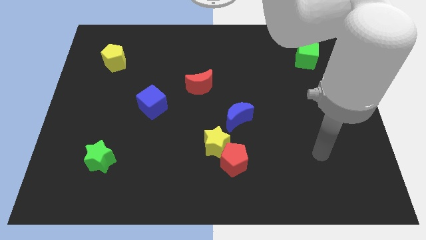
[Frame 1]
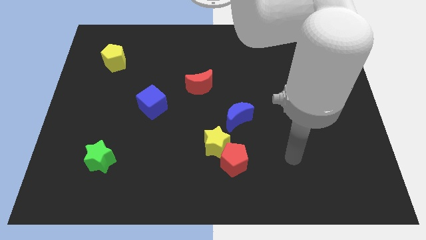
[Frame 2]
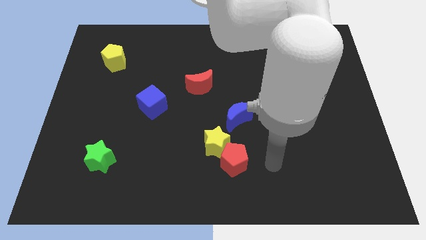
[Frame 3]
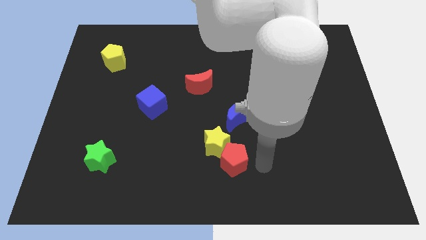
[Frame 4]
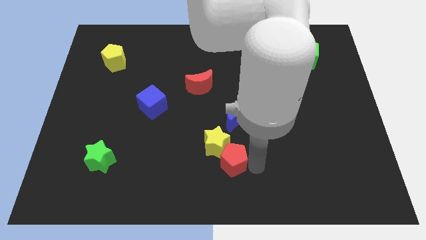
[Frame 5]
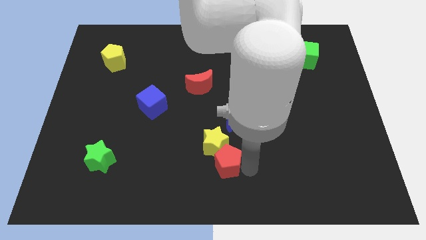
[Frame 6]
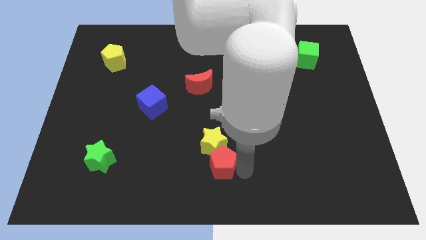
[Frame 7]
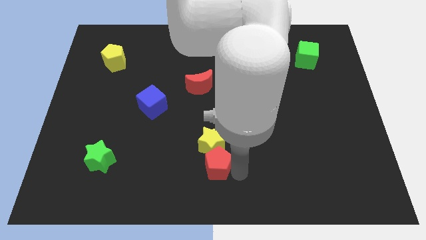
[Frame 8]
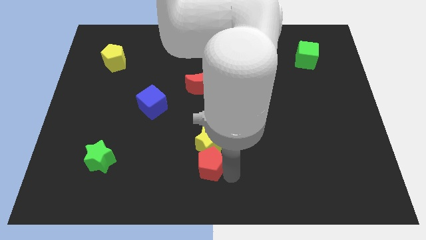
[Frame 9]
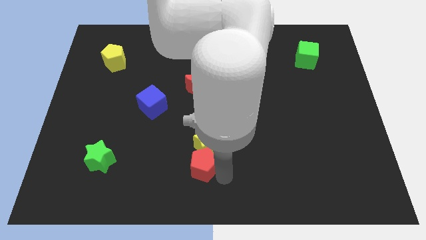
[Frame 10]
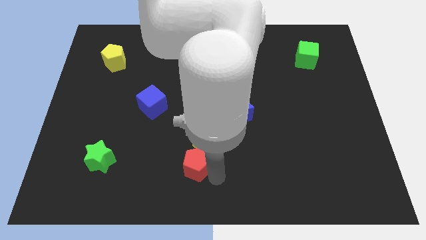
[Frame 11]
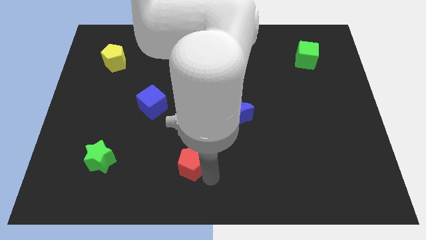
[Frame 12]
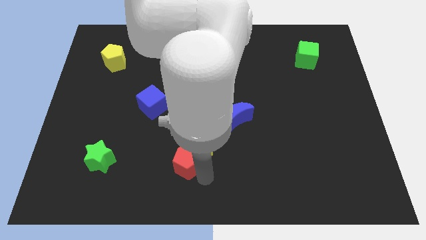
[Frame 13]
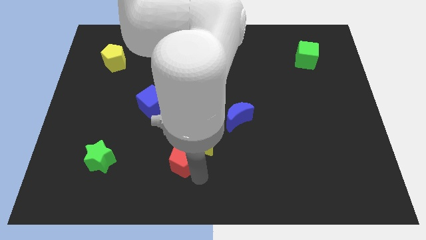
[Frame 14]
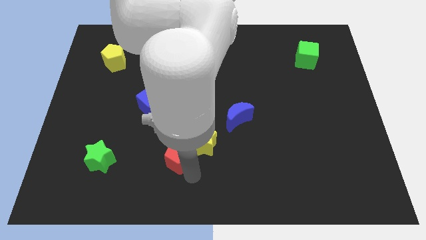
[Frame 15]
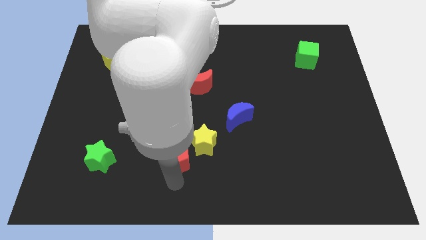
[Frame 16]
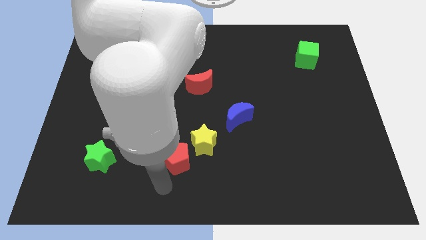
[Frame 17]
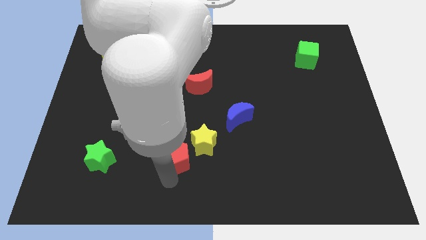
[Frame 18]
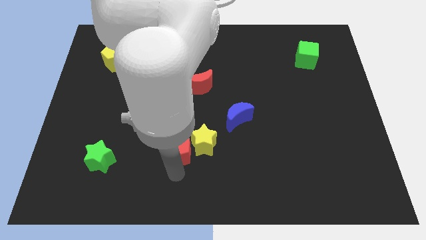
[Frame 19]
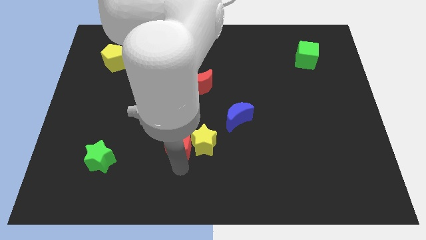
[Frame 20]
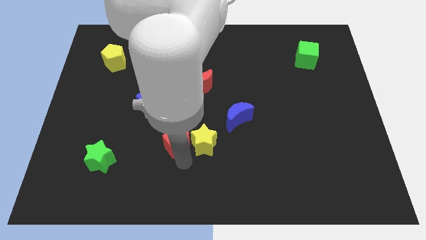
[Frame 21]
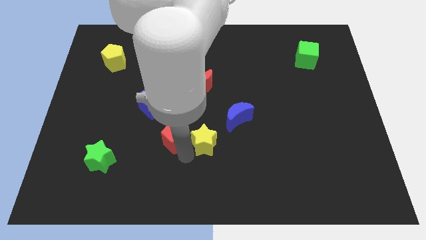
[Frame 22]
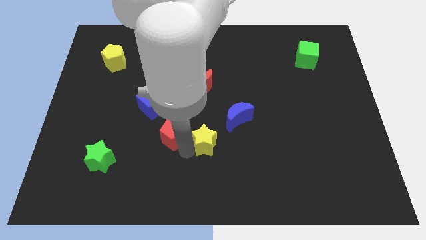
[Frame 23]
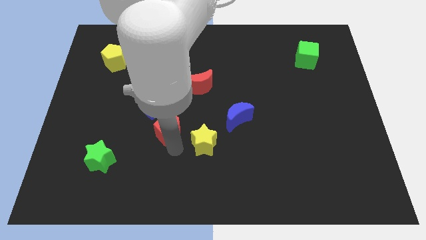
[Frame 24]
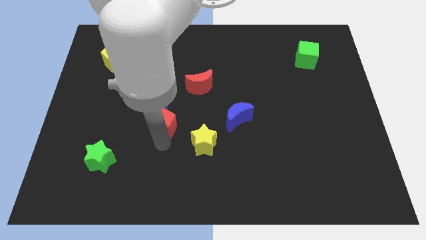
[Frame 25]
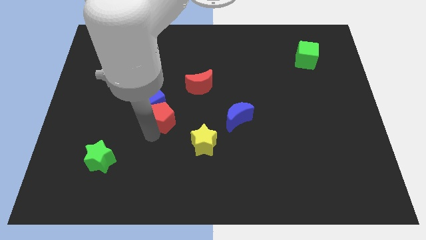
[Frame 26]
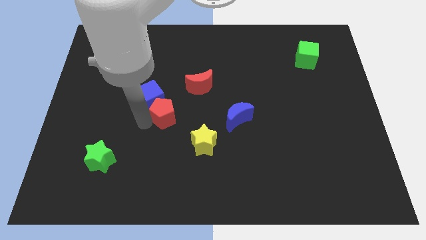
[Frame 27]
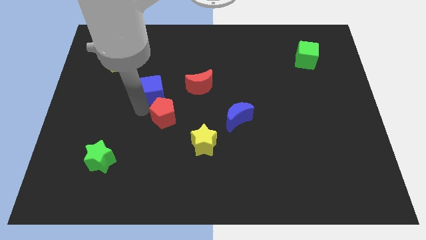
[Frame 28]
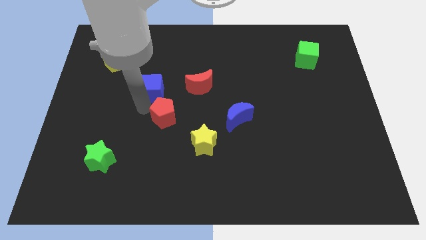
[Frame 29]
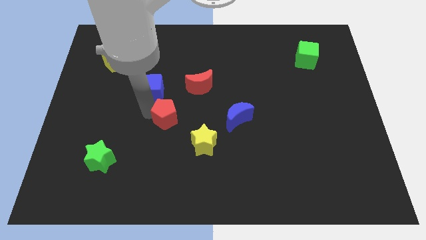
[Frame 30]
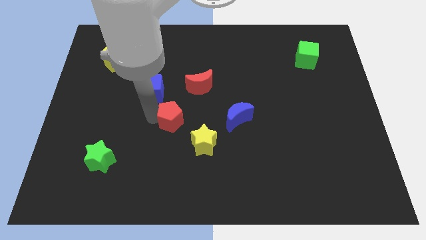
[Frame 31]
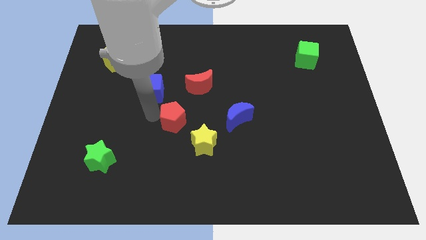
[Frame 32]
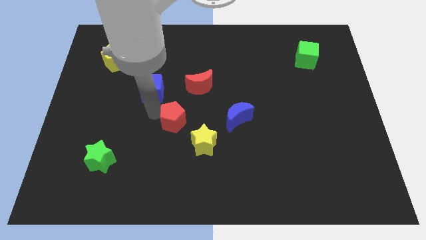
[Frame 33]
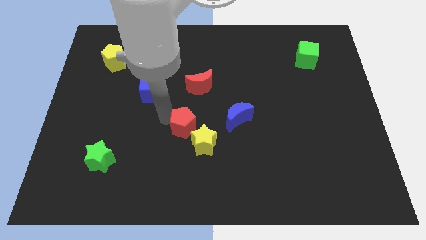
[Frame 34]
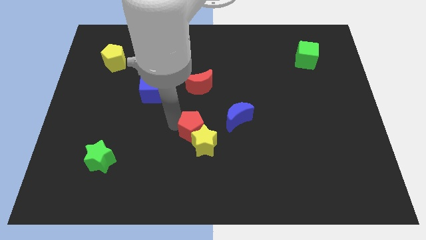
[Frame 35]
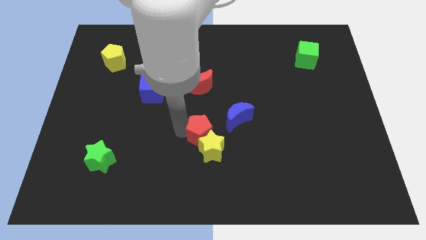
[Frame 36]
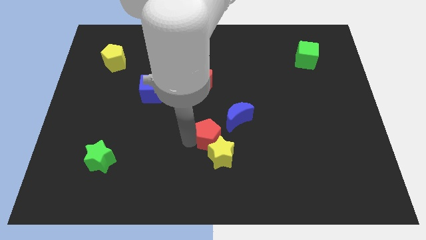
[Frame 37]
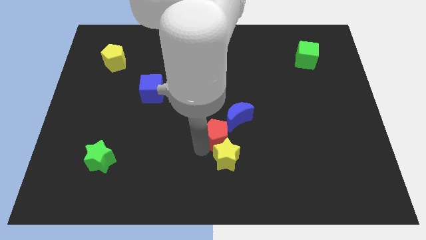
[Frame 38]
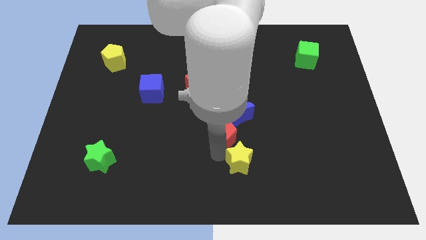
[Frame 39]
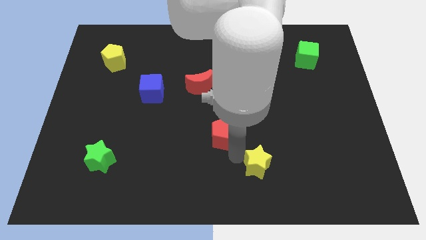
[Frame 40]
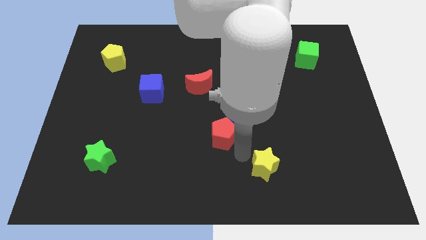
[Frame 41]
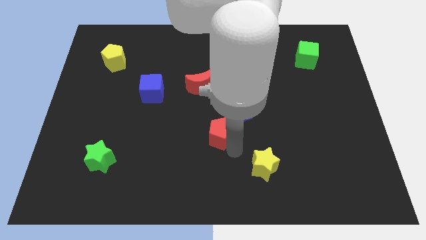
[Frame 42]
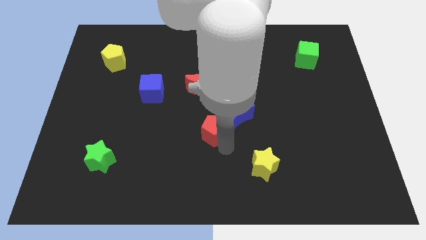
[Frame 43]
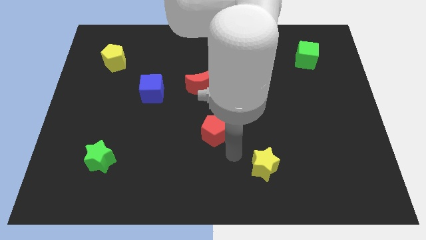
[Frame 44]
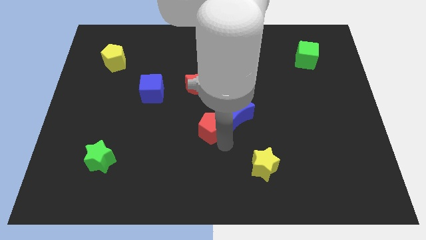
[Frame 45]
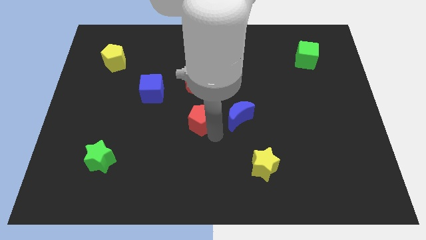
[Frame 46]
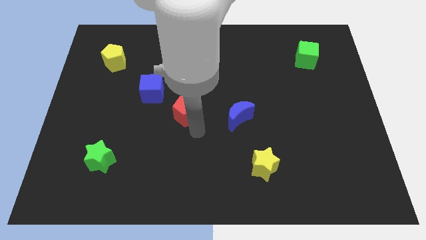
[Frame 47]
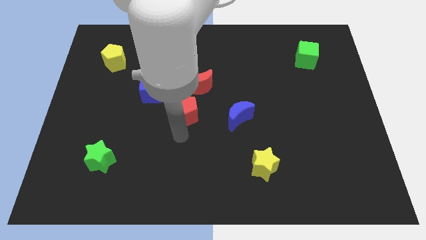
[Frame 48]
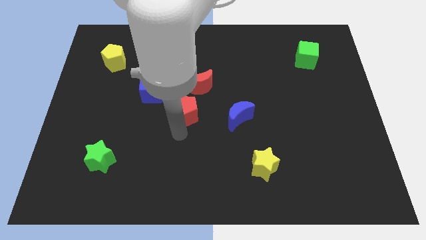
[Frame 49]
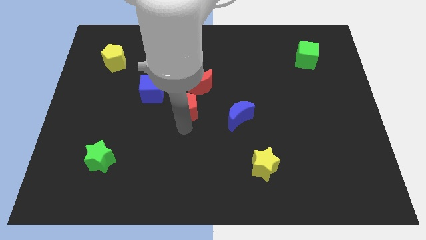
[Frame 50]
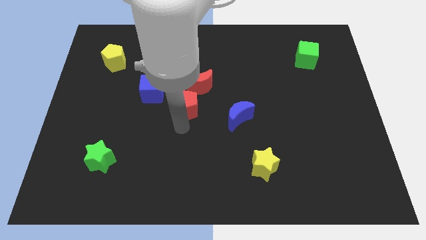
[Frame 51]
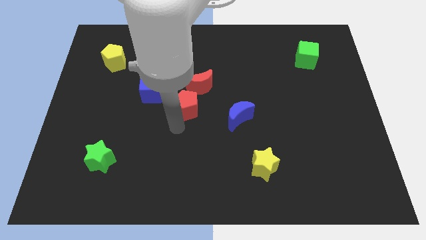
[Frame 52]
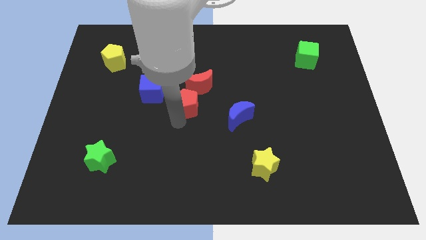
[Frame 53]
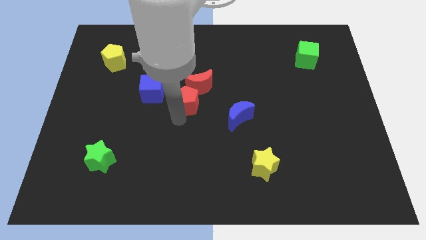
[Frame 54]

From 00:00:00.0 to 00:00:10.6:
move the red pentagon towards the red moon

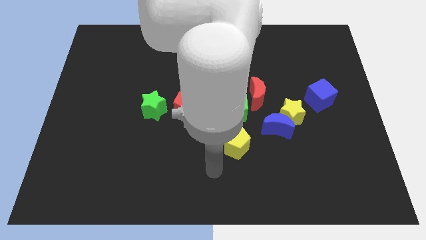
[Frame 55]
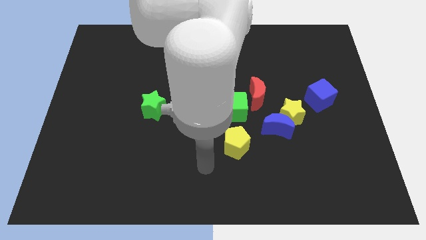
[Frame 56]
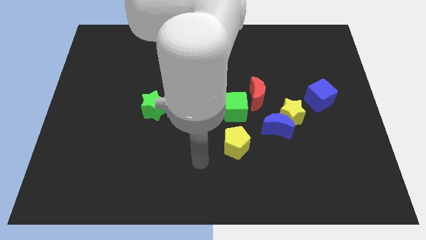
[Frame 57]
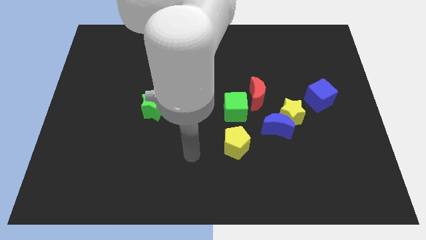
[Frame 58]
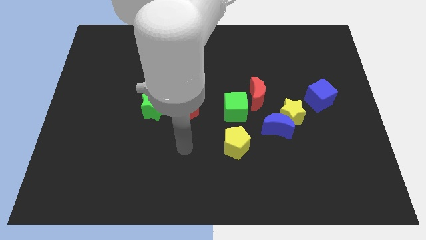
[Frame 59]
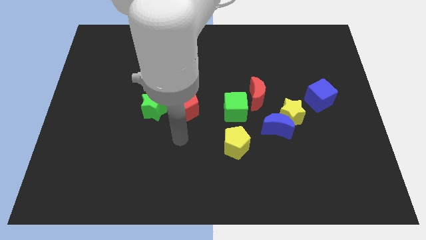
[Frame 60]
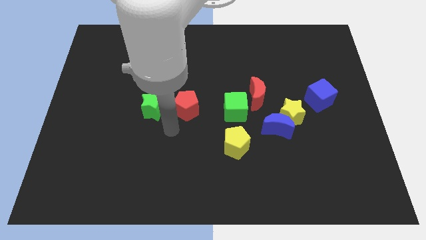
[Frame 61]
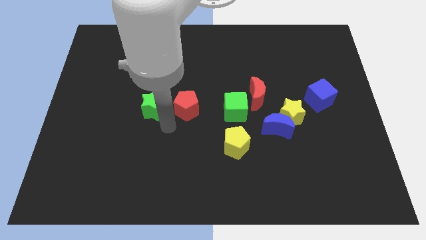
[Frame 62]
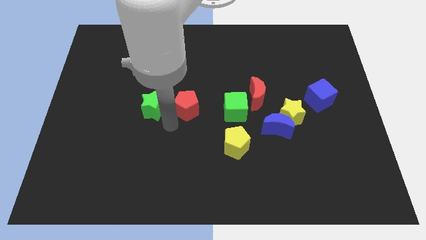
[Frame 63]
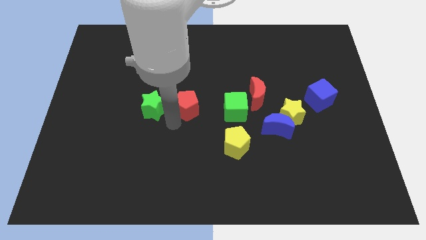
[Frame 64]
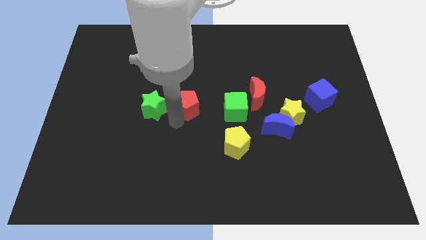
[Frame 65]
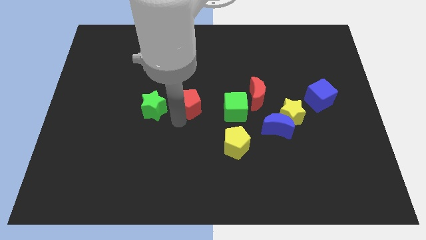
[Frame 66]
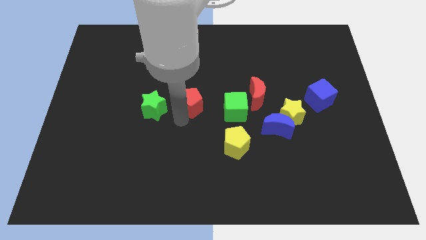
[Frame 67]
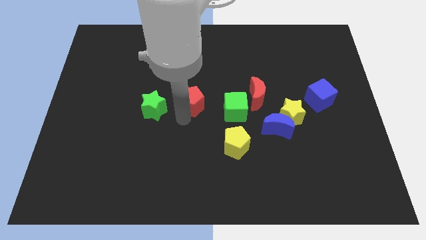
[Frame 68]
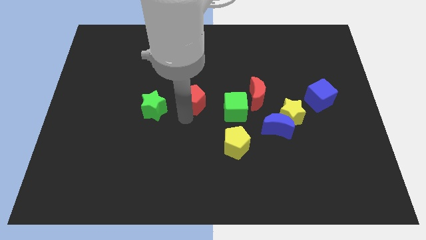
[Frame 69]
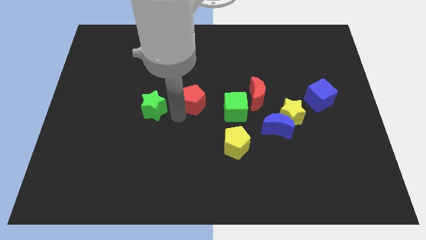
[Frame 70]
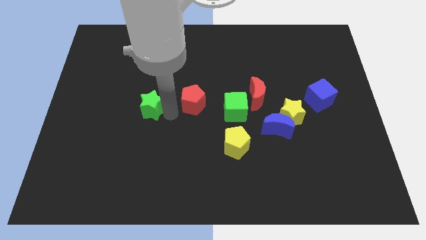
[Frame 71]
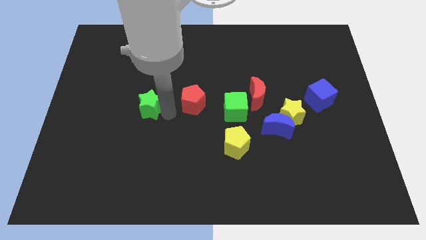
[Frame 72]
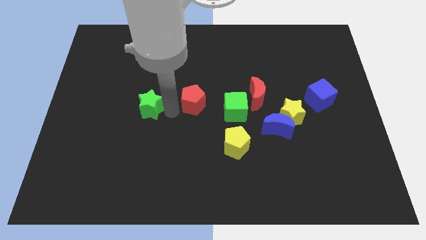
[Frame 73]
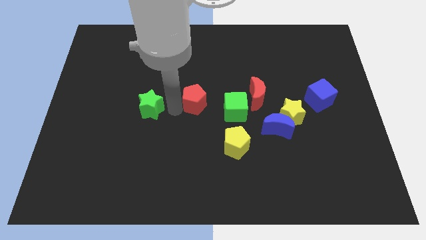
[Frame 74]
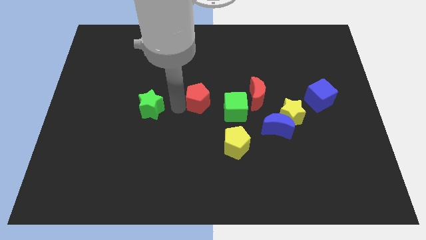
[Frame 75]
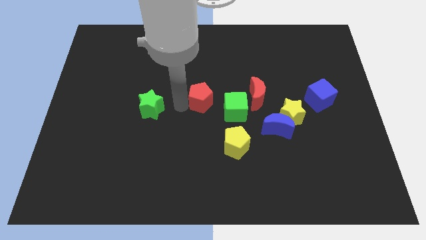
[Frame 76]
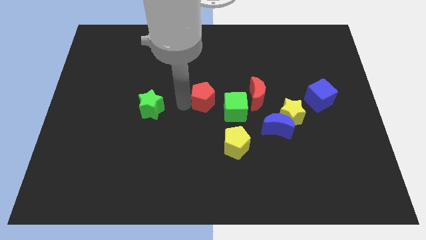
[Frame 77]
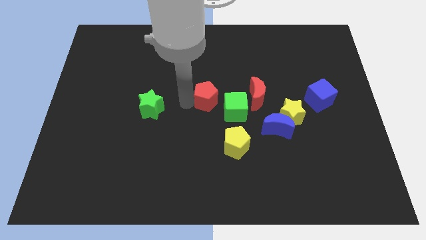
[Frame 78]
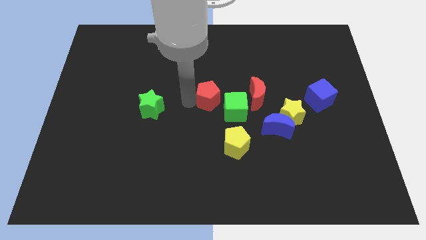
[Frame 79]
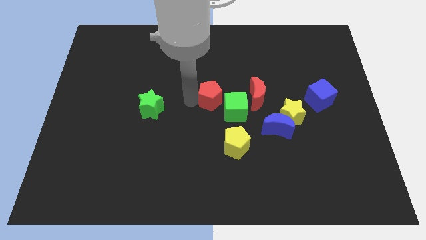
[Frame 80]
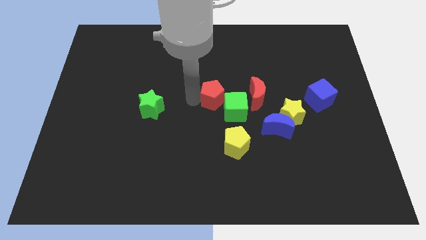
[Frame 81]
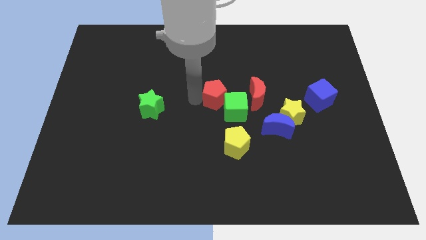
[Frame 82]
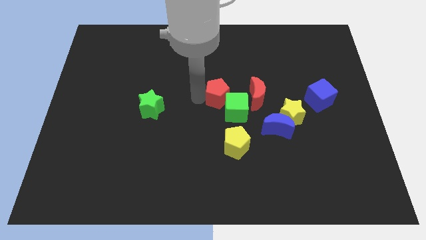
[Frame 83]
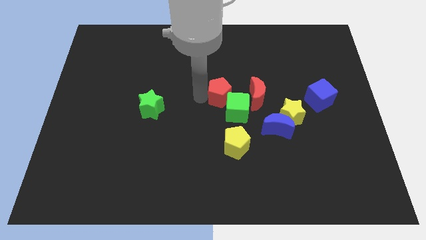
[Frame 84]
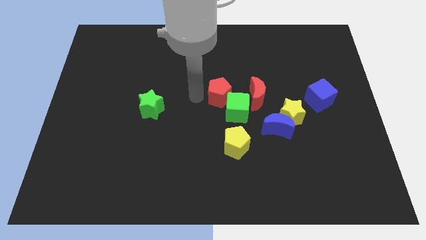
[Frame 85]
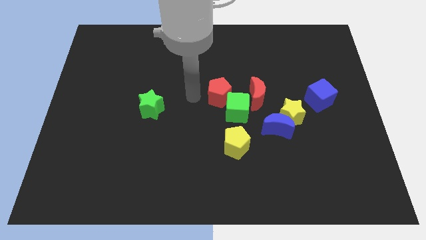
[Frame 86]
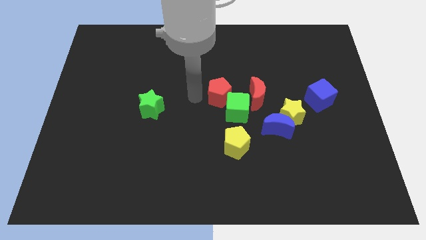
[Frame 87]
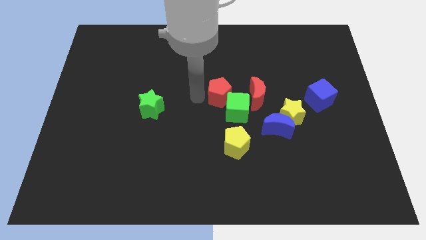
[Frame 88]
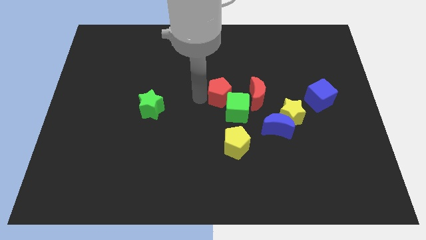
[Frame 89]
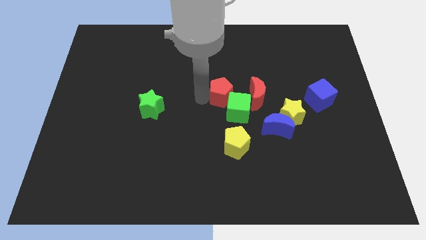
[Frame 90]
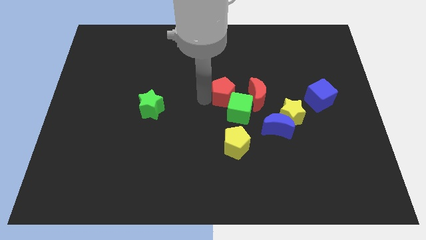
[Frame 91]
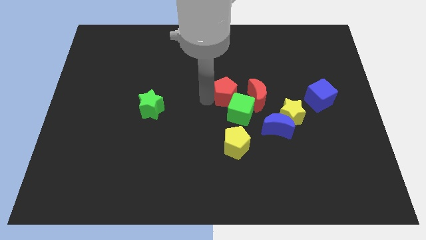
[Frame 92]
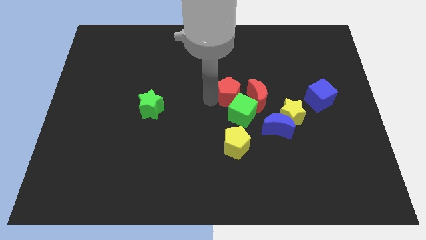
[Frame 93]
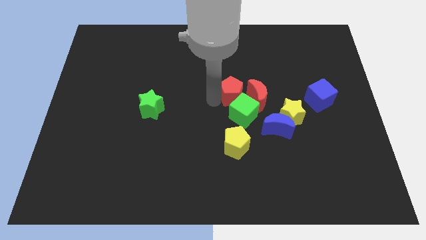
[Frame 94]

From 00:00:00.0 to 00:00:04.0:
push the red pentagon close to the red moon
